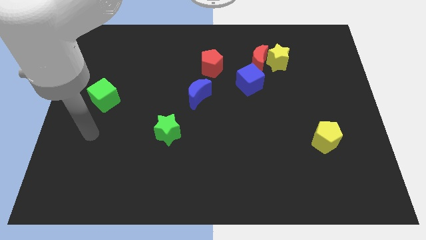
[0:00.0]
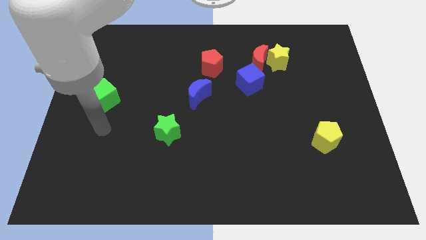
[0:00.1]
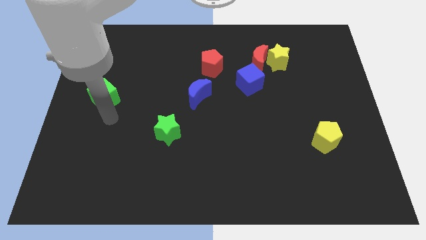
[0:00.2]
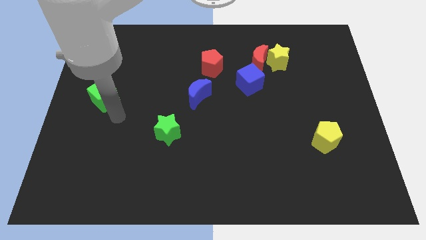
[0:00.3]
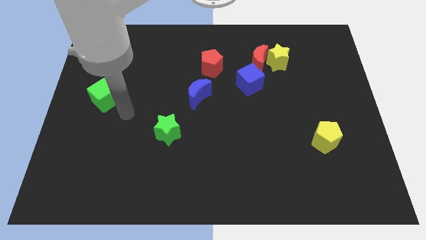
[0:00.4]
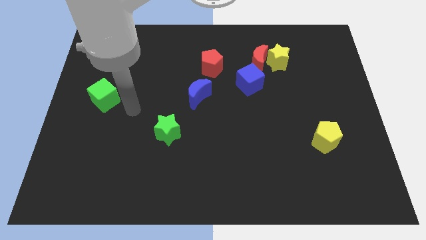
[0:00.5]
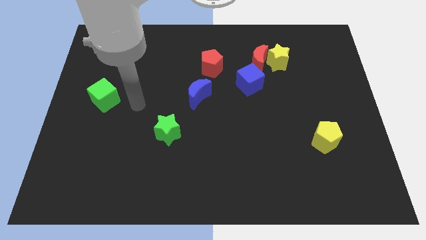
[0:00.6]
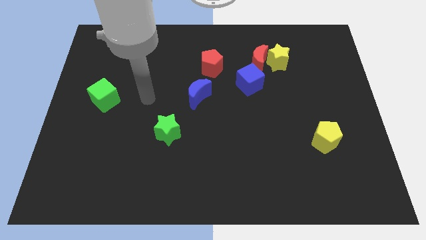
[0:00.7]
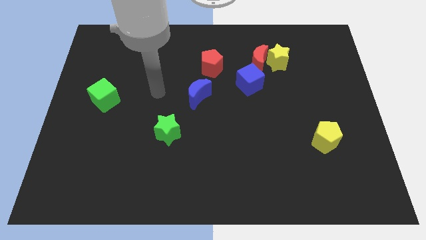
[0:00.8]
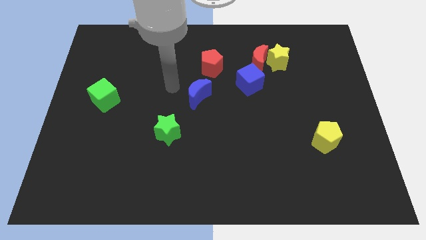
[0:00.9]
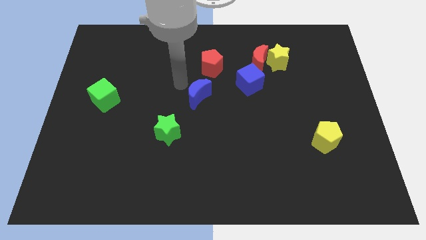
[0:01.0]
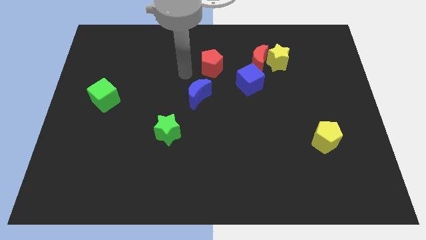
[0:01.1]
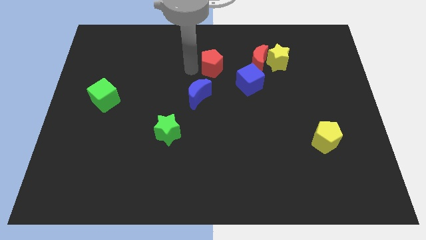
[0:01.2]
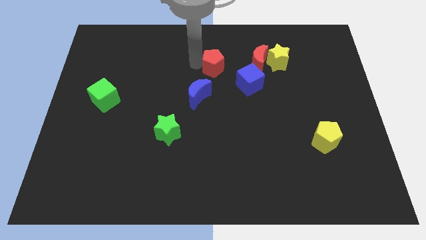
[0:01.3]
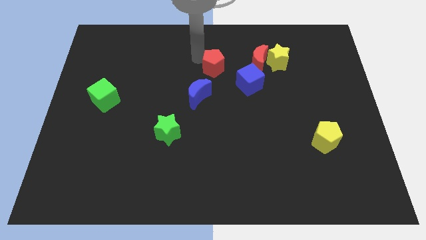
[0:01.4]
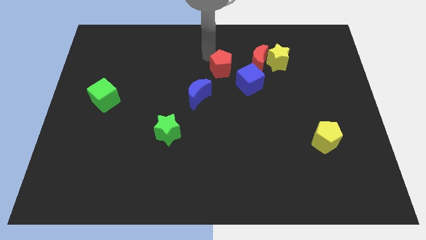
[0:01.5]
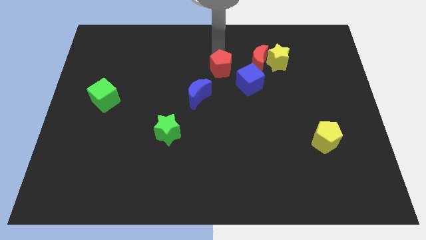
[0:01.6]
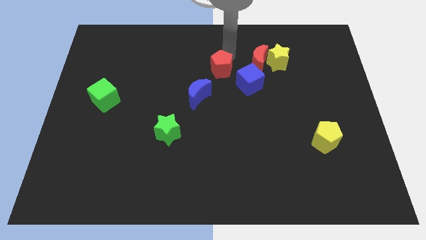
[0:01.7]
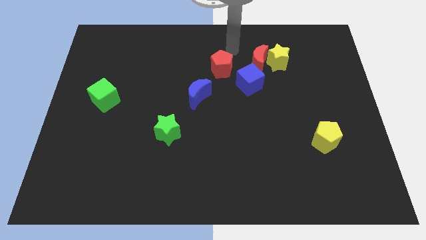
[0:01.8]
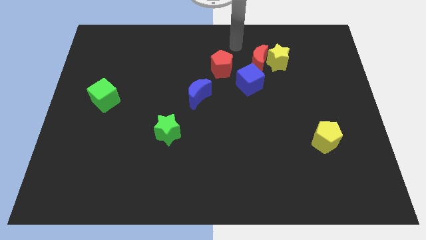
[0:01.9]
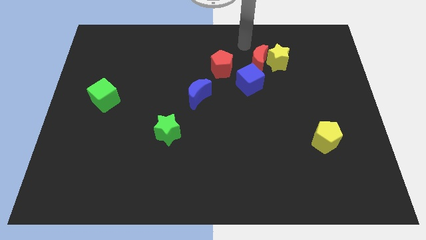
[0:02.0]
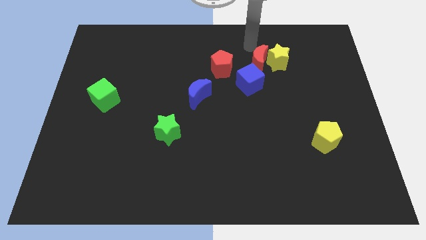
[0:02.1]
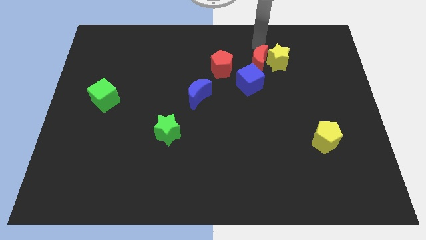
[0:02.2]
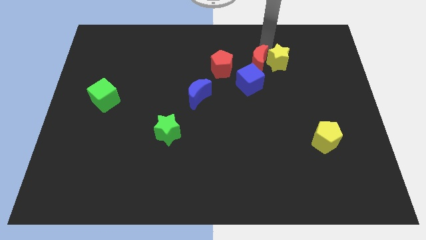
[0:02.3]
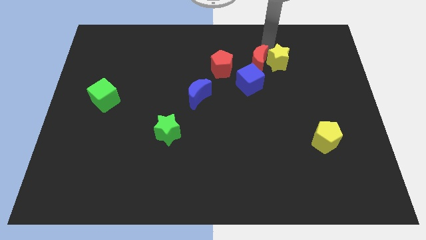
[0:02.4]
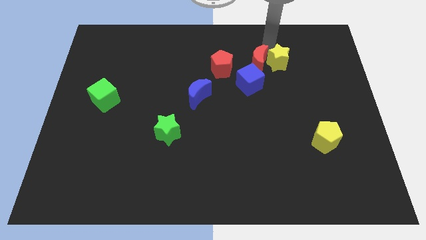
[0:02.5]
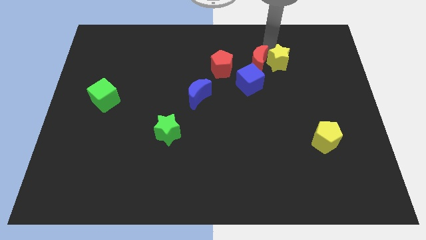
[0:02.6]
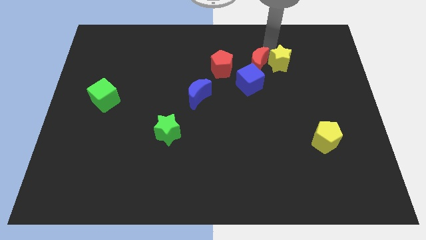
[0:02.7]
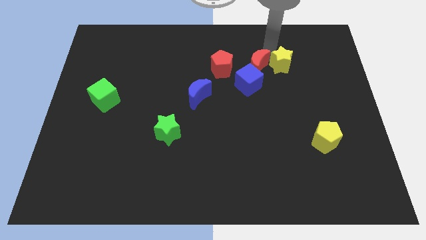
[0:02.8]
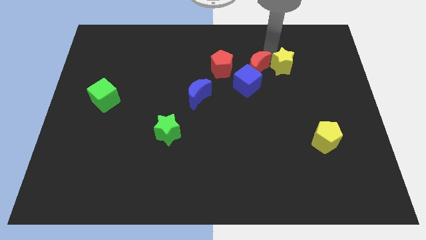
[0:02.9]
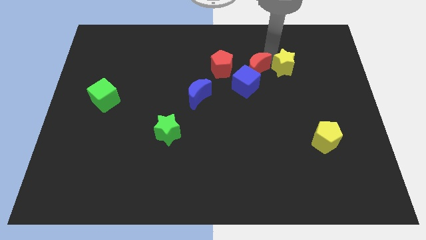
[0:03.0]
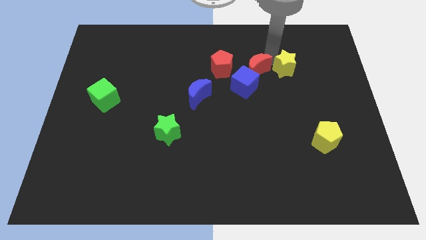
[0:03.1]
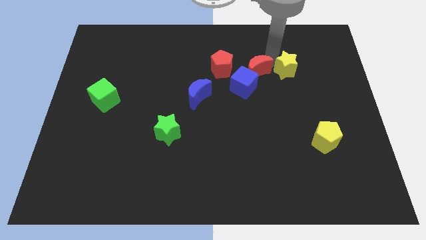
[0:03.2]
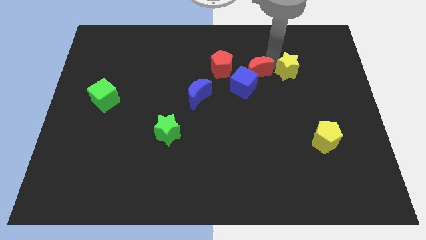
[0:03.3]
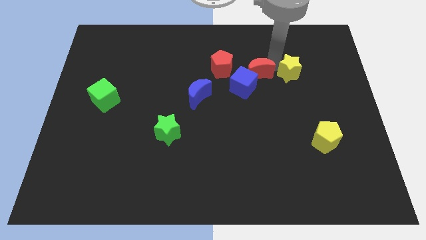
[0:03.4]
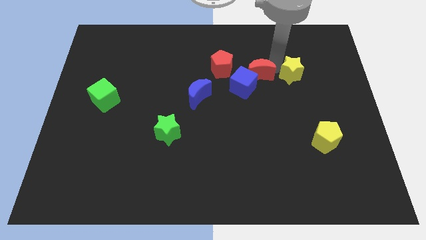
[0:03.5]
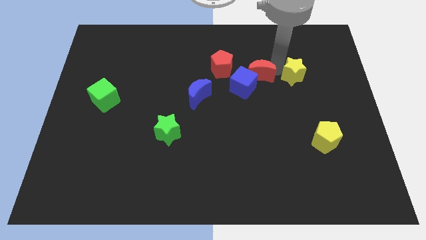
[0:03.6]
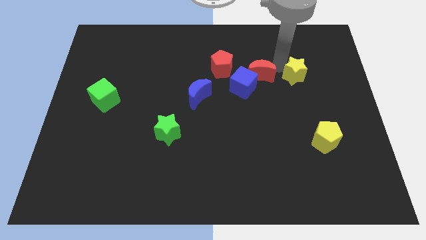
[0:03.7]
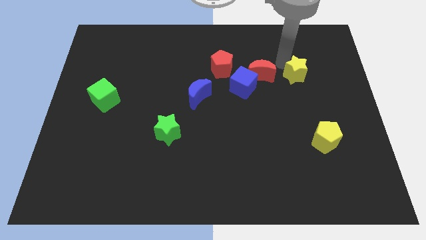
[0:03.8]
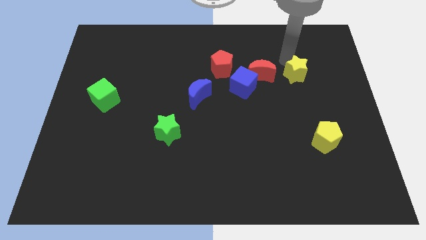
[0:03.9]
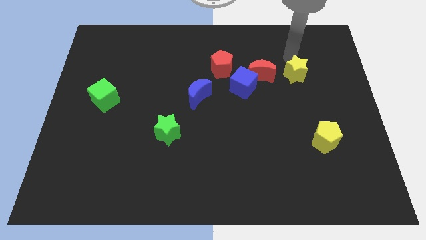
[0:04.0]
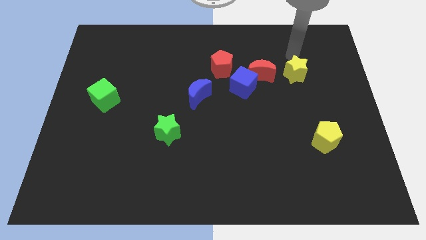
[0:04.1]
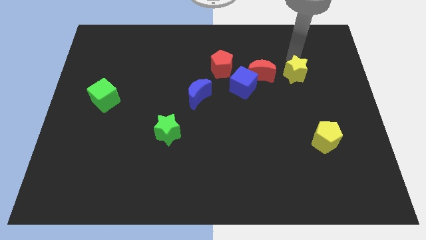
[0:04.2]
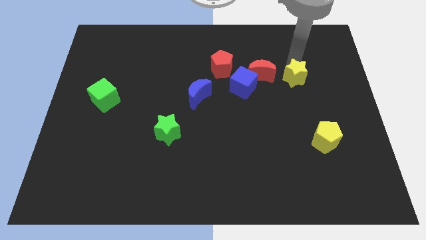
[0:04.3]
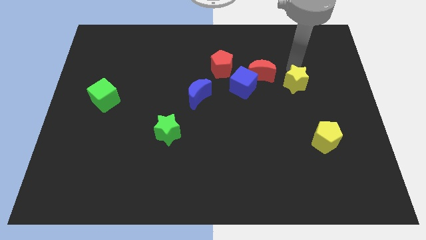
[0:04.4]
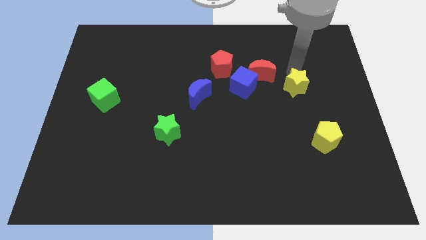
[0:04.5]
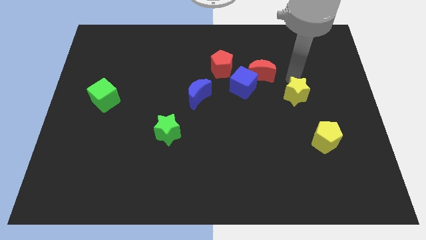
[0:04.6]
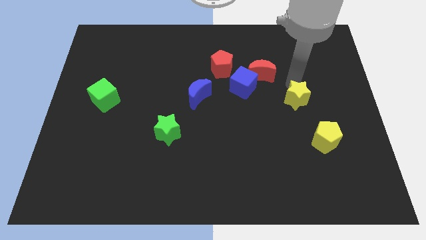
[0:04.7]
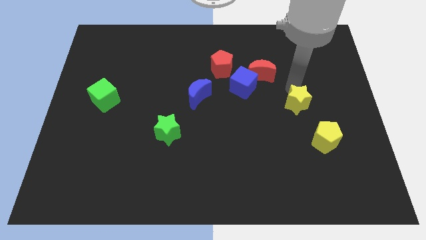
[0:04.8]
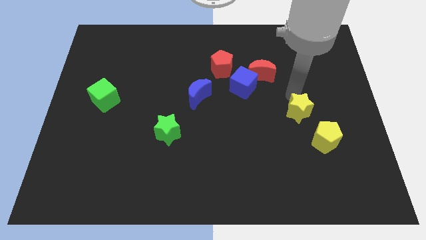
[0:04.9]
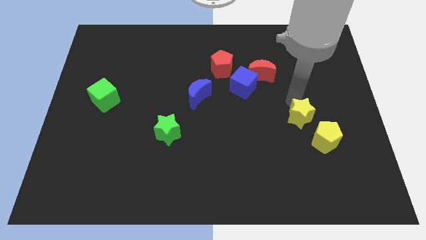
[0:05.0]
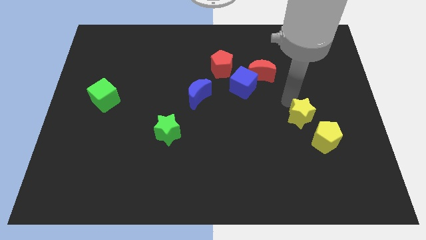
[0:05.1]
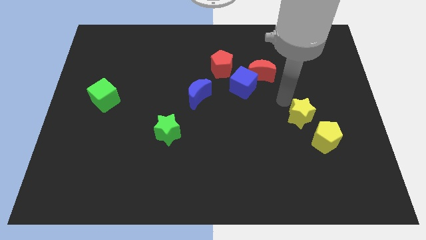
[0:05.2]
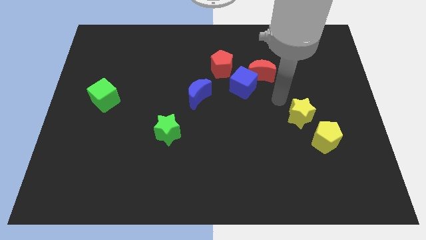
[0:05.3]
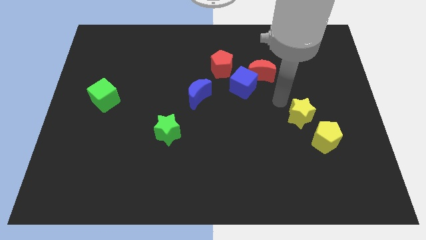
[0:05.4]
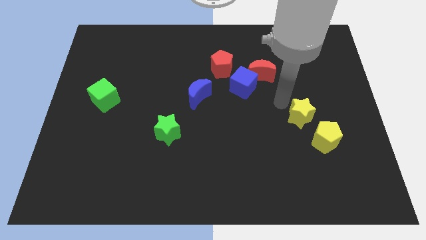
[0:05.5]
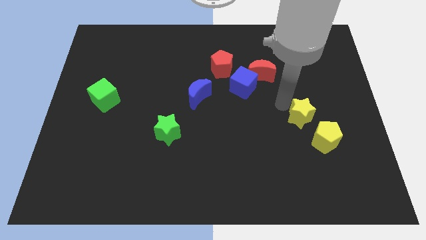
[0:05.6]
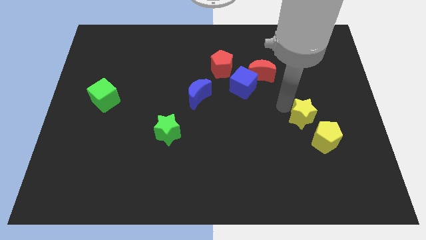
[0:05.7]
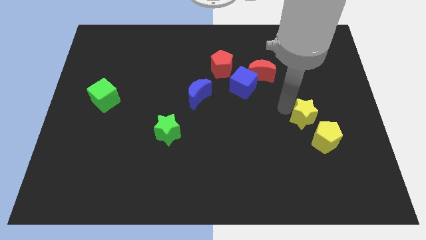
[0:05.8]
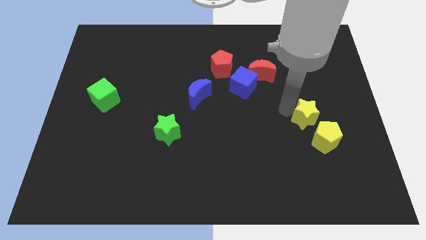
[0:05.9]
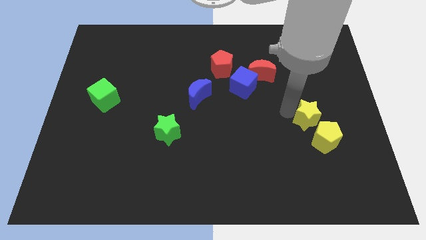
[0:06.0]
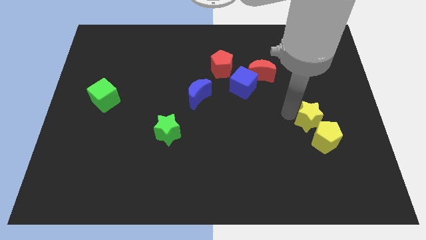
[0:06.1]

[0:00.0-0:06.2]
put the yellow star towards the yellow pentagon

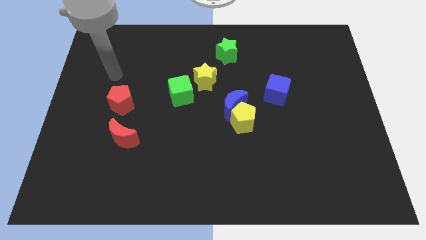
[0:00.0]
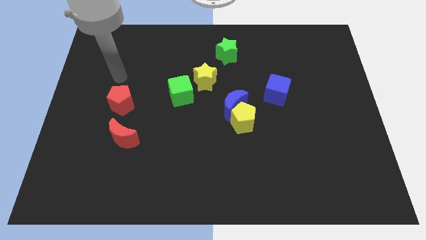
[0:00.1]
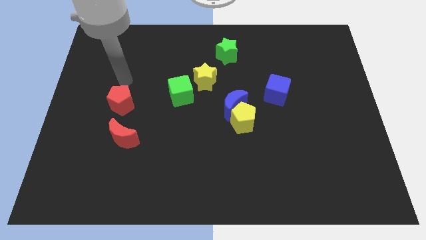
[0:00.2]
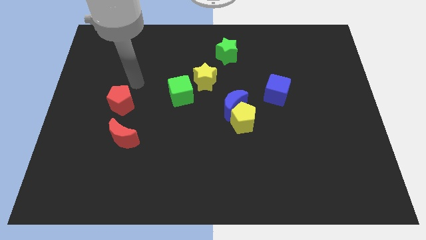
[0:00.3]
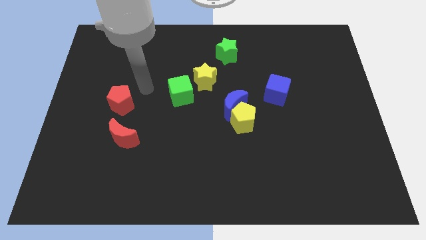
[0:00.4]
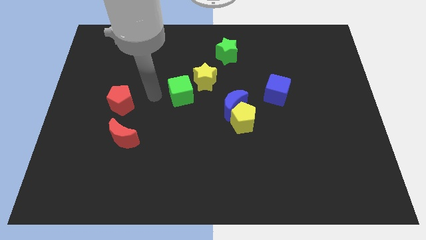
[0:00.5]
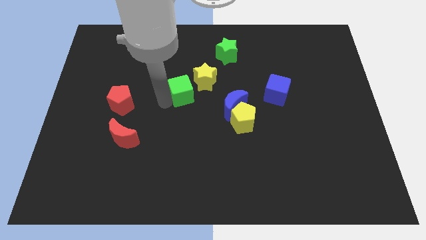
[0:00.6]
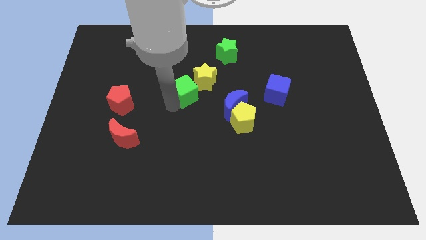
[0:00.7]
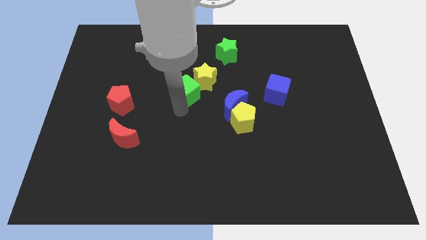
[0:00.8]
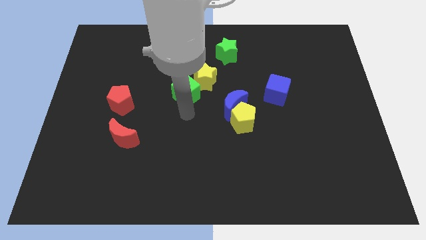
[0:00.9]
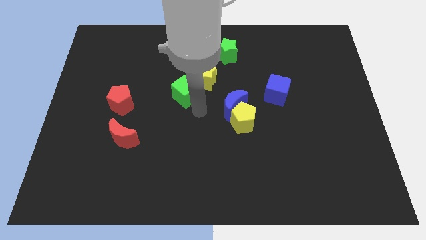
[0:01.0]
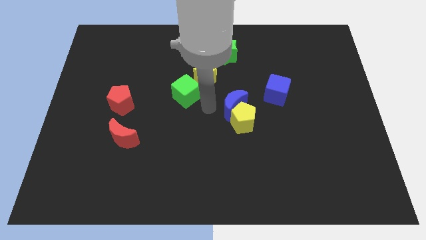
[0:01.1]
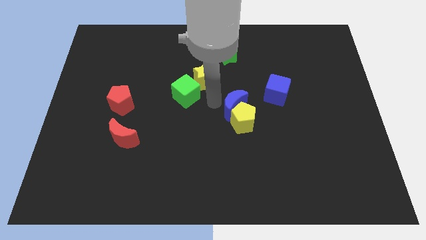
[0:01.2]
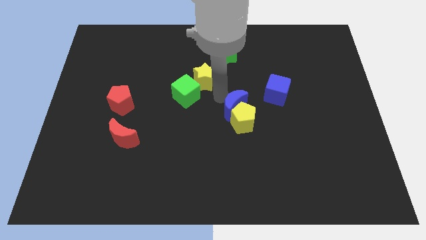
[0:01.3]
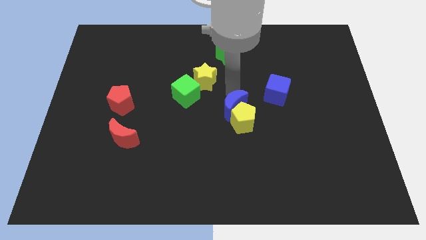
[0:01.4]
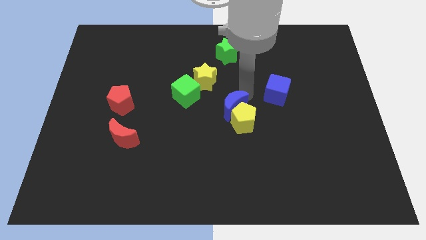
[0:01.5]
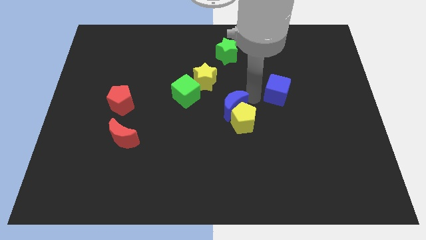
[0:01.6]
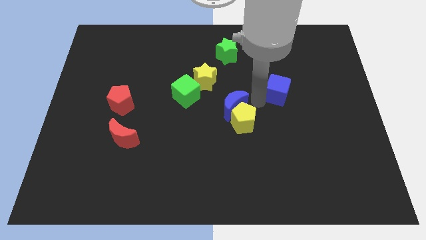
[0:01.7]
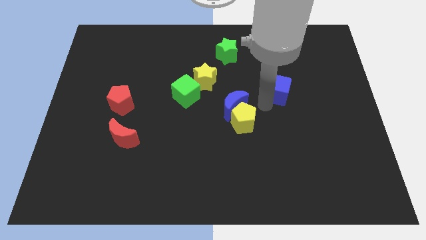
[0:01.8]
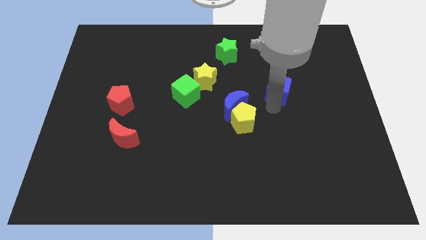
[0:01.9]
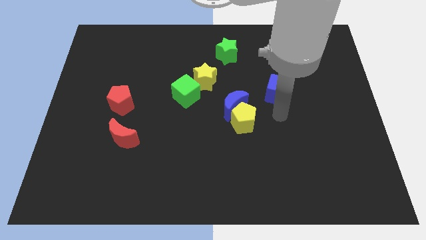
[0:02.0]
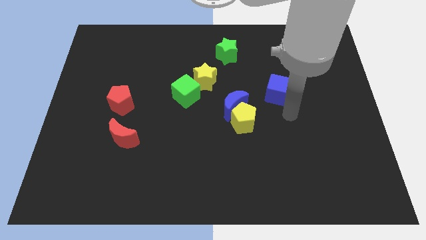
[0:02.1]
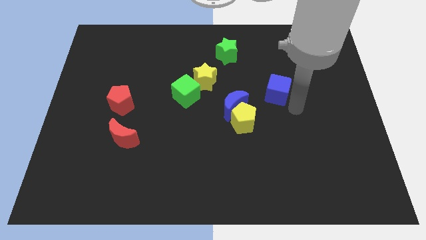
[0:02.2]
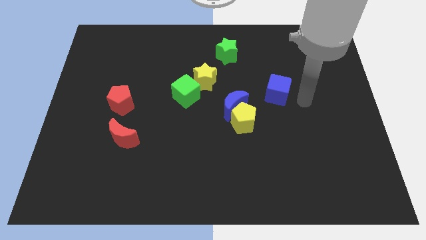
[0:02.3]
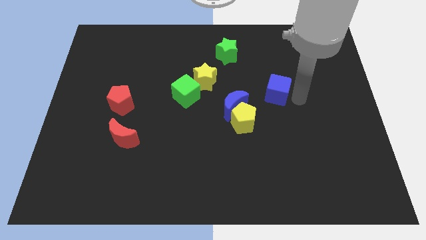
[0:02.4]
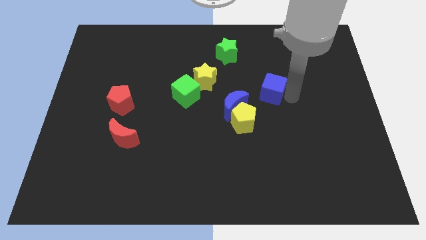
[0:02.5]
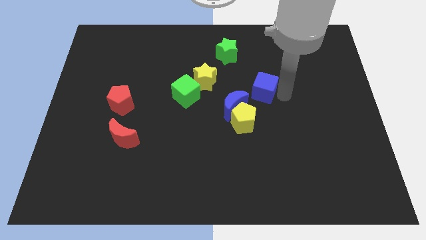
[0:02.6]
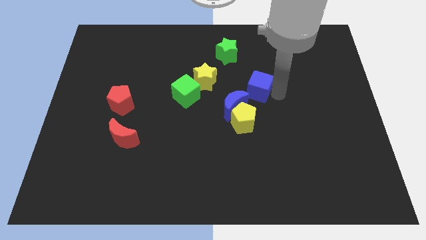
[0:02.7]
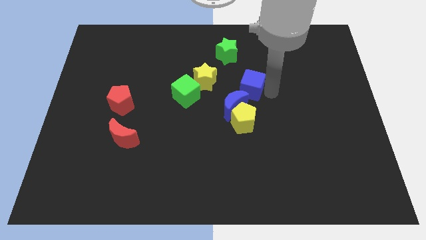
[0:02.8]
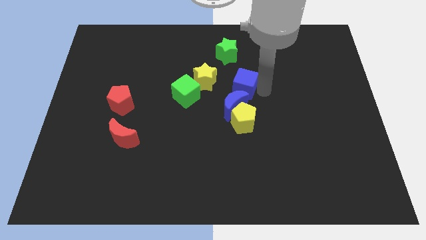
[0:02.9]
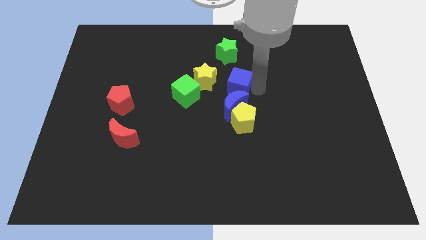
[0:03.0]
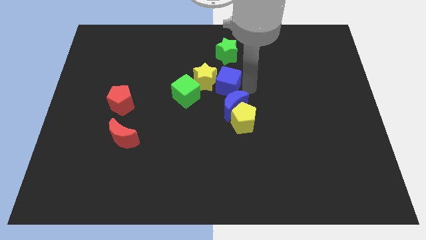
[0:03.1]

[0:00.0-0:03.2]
slide the blue cube to the yellow star
